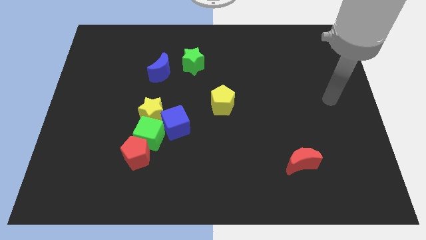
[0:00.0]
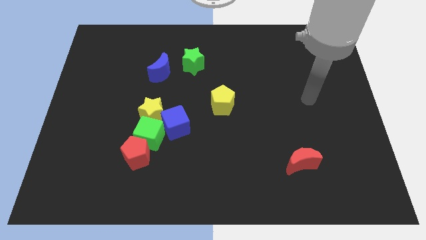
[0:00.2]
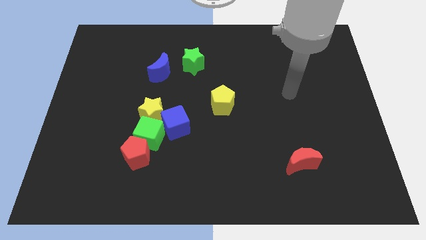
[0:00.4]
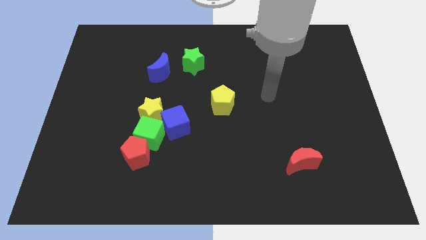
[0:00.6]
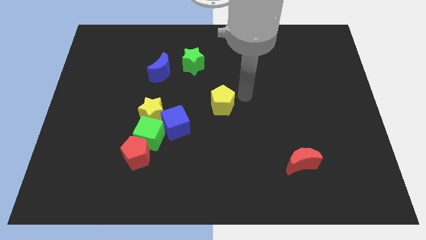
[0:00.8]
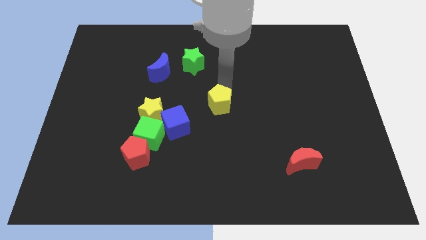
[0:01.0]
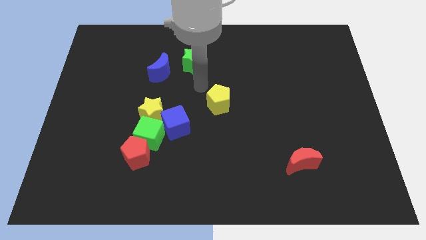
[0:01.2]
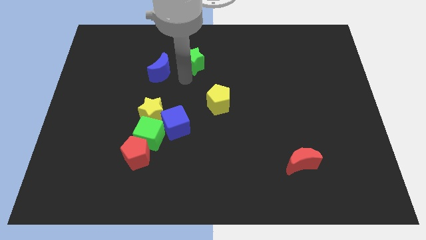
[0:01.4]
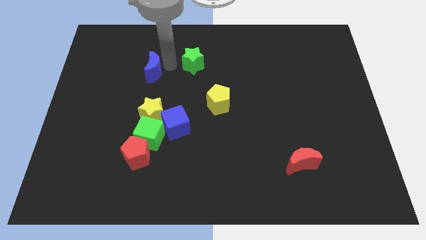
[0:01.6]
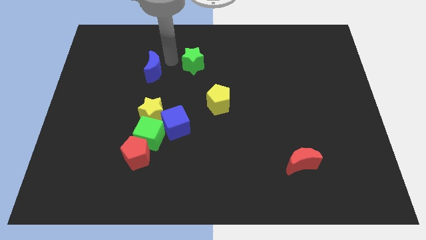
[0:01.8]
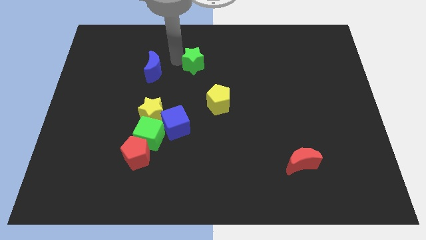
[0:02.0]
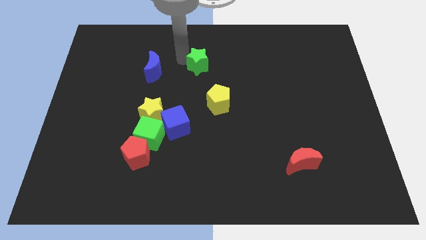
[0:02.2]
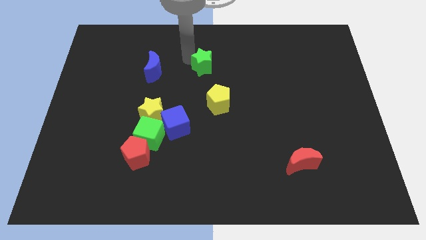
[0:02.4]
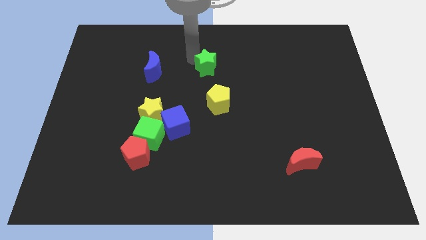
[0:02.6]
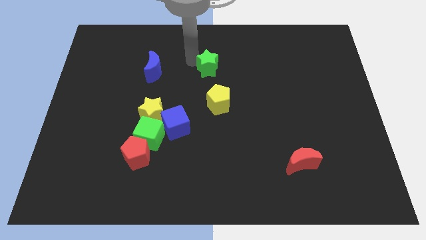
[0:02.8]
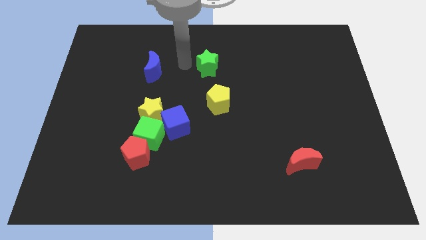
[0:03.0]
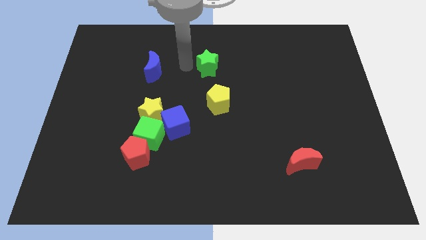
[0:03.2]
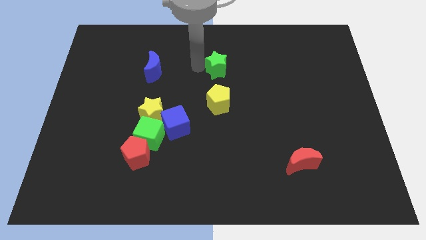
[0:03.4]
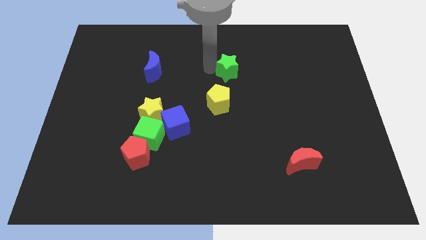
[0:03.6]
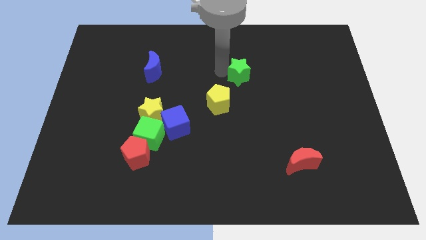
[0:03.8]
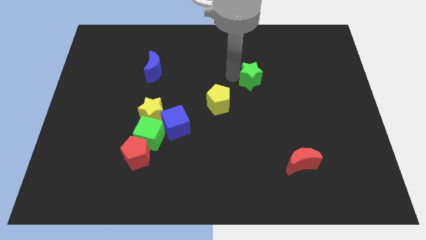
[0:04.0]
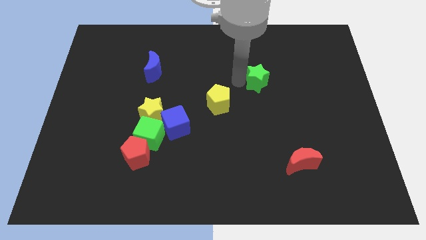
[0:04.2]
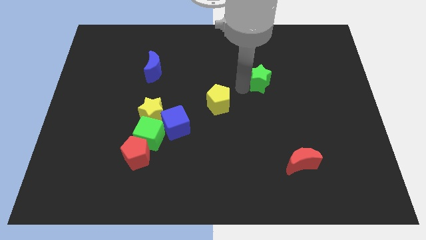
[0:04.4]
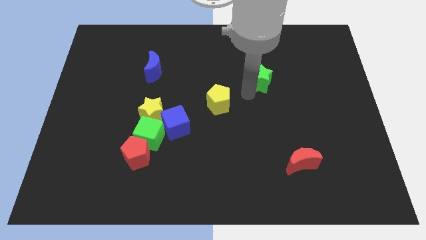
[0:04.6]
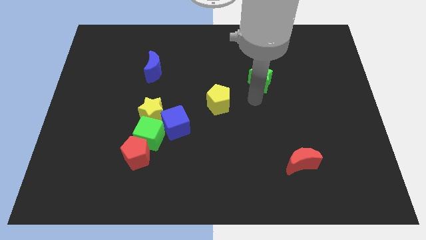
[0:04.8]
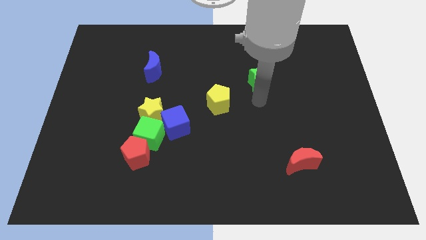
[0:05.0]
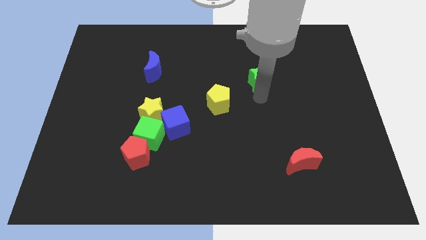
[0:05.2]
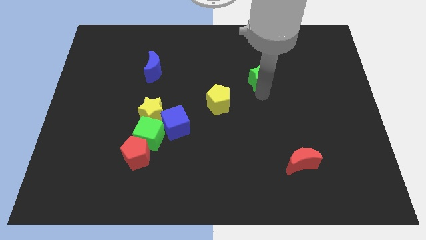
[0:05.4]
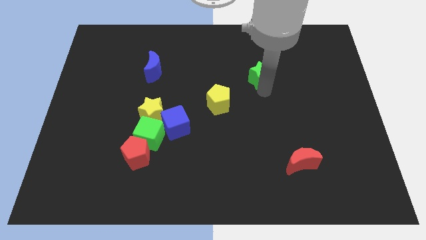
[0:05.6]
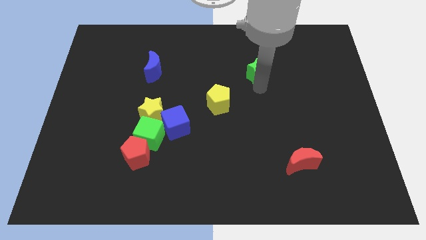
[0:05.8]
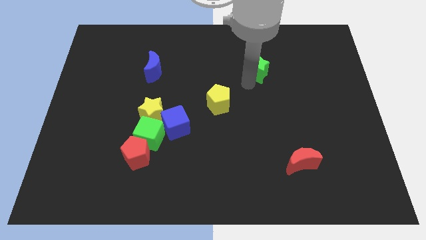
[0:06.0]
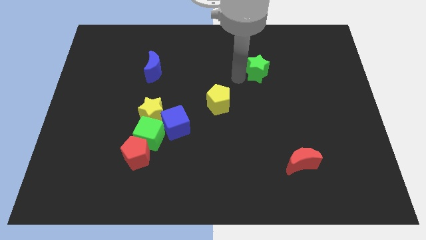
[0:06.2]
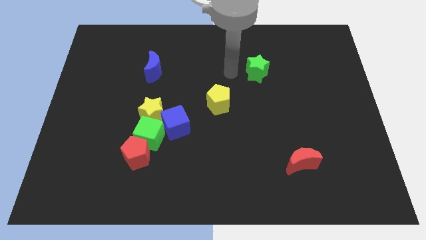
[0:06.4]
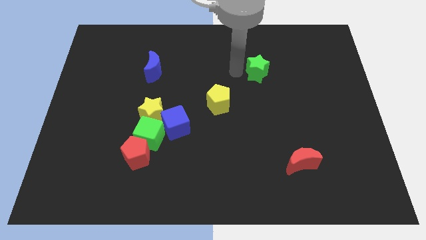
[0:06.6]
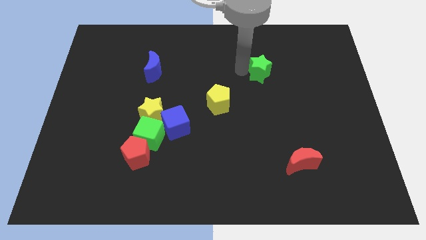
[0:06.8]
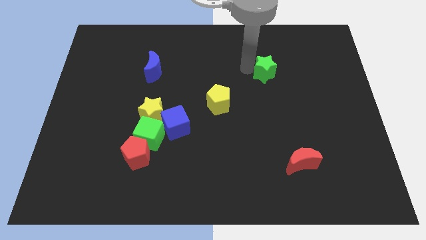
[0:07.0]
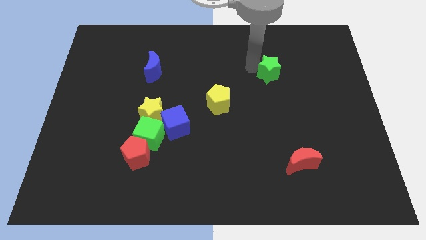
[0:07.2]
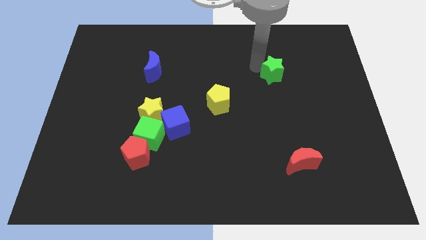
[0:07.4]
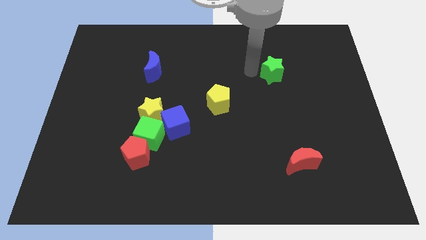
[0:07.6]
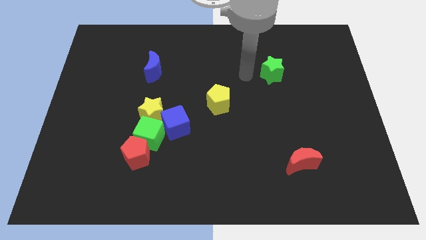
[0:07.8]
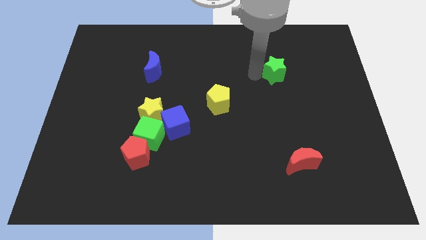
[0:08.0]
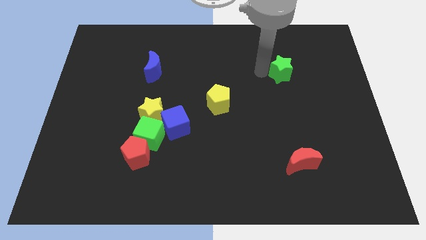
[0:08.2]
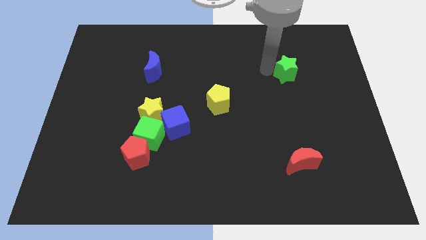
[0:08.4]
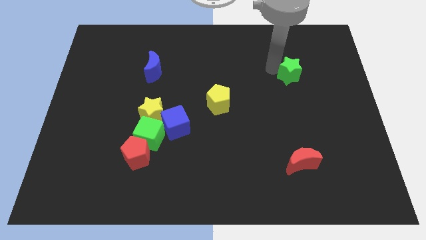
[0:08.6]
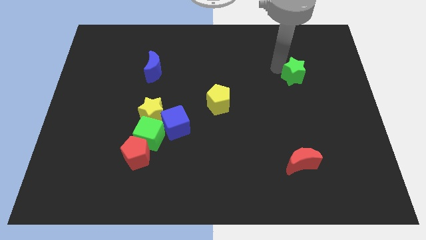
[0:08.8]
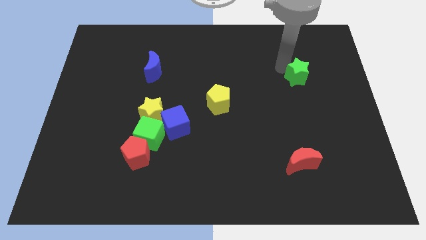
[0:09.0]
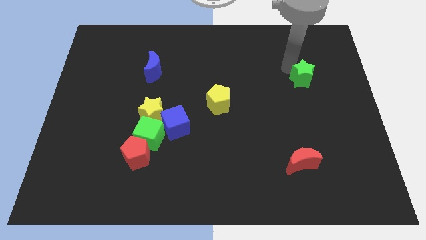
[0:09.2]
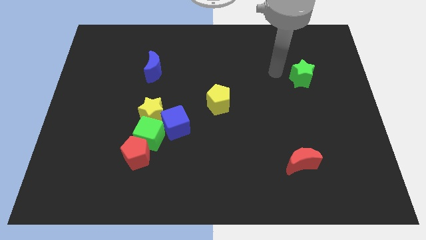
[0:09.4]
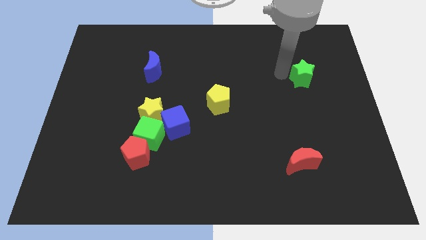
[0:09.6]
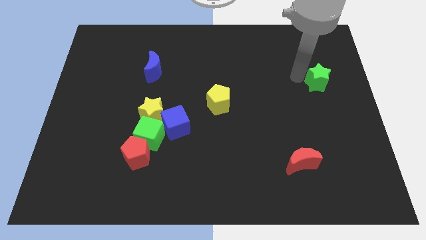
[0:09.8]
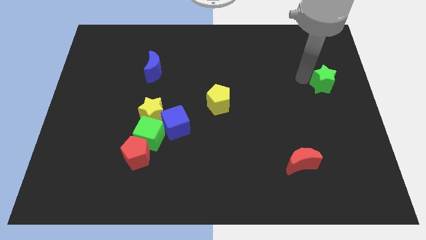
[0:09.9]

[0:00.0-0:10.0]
put the green star to the center right
